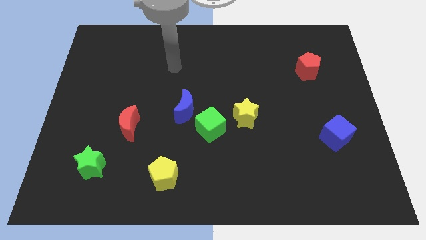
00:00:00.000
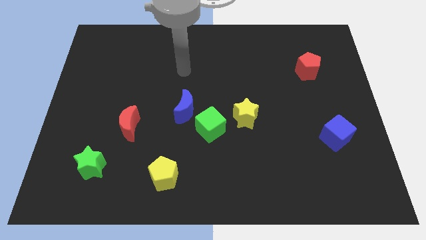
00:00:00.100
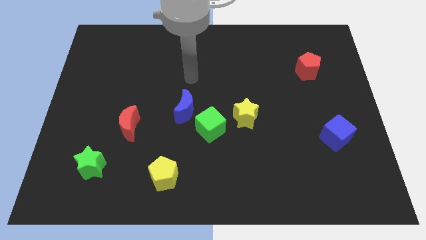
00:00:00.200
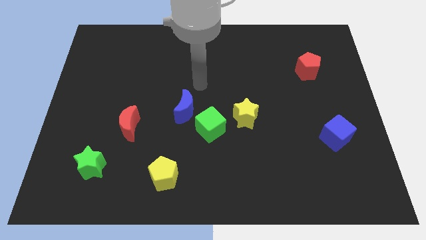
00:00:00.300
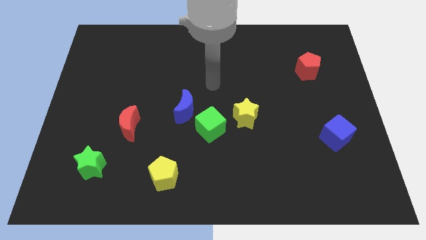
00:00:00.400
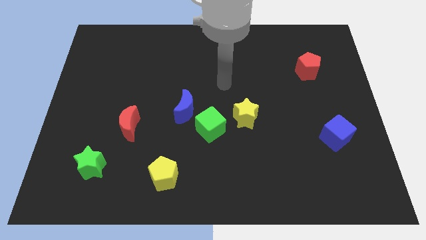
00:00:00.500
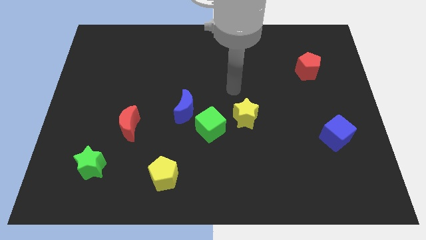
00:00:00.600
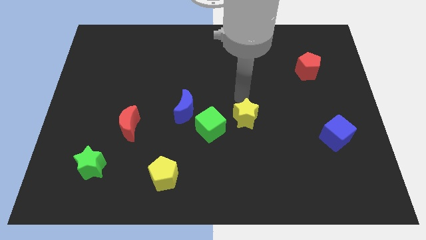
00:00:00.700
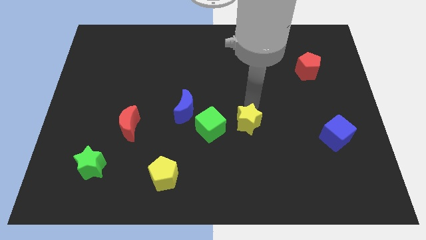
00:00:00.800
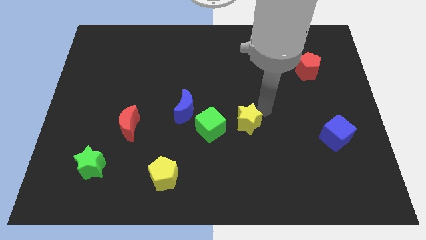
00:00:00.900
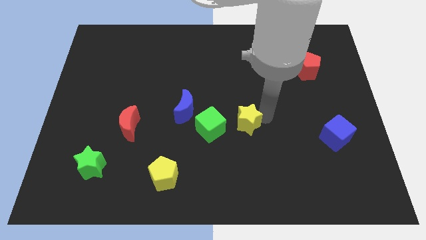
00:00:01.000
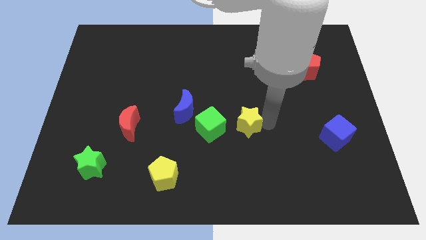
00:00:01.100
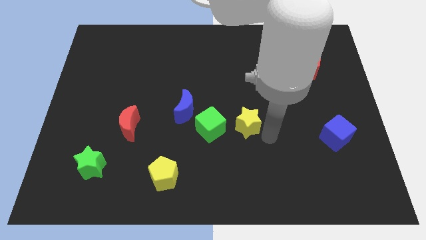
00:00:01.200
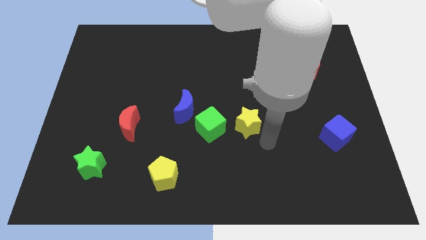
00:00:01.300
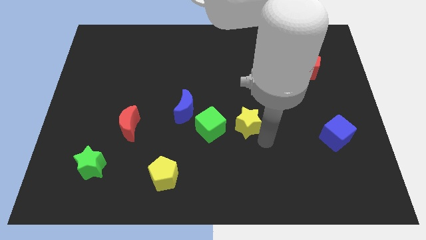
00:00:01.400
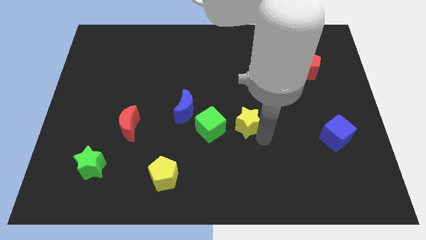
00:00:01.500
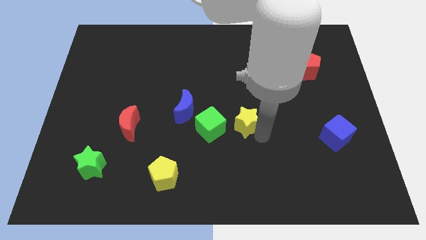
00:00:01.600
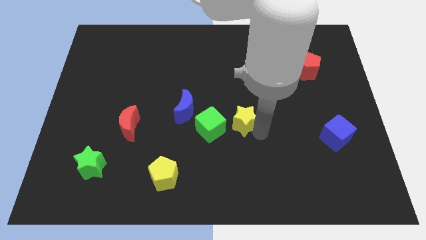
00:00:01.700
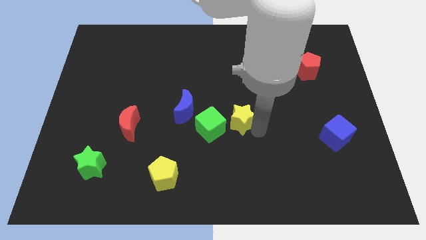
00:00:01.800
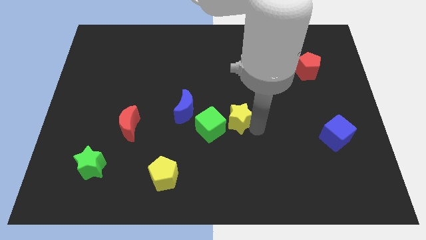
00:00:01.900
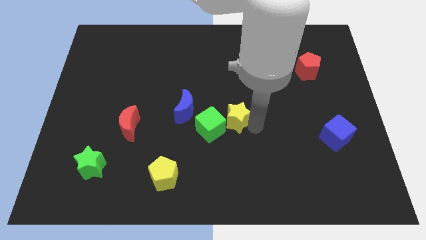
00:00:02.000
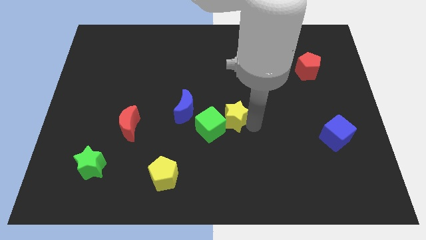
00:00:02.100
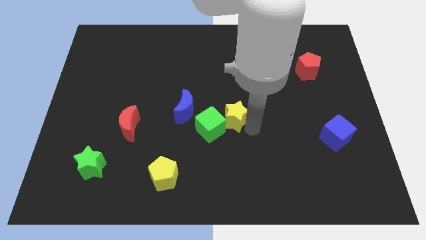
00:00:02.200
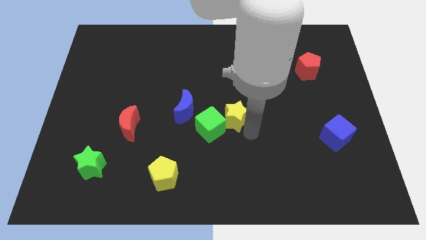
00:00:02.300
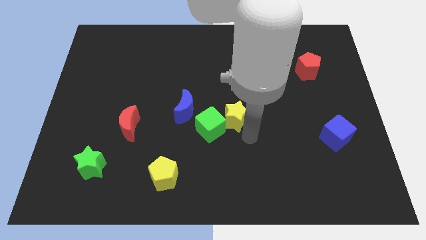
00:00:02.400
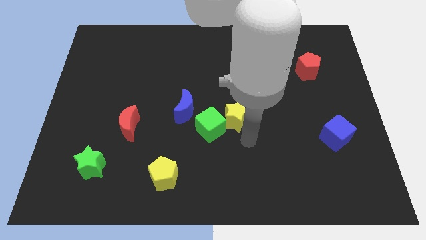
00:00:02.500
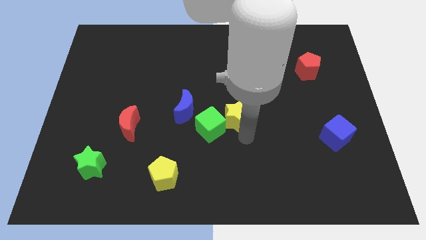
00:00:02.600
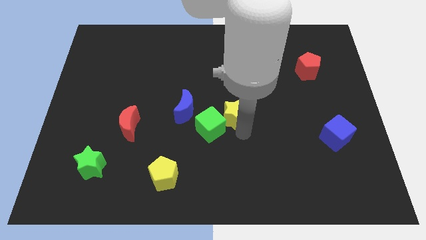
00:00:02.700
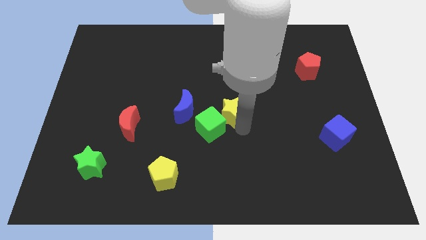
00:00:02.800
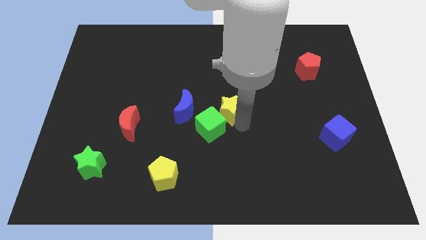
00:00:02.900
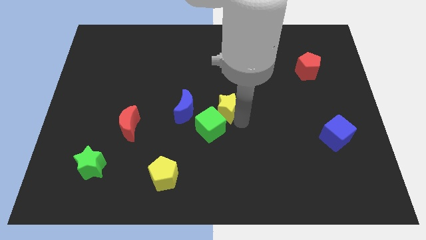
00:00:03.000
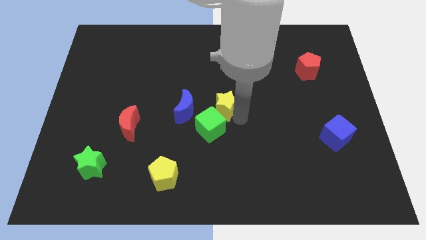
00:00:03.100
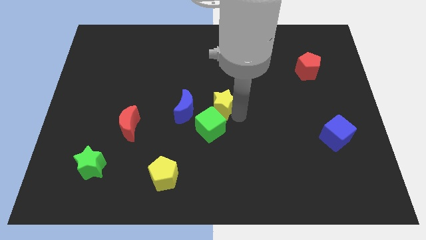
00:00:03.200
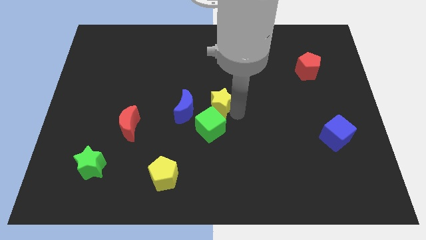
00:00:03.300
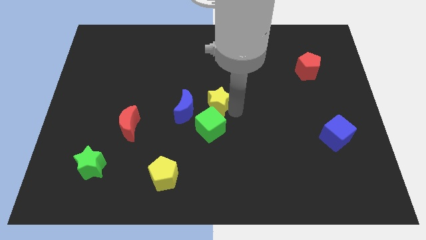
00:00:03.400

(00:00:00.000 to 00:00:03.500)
push the yellow star slightly upwards and to the left

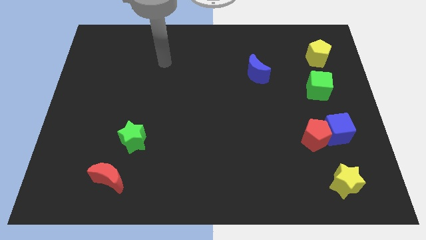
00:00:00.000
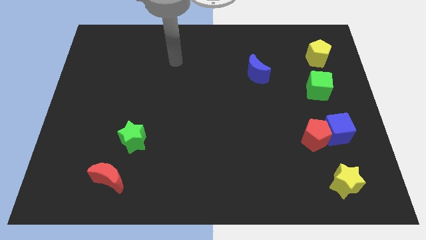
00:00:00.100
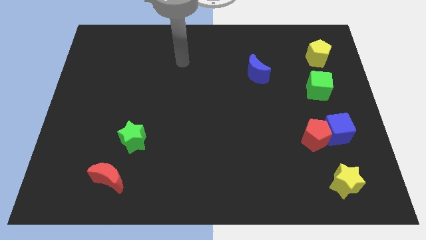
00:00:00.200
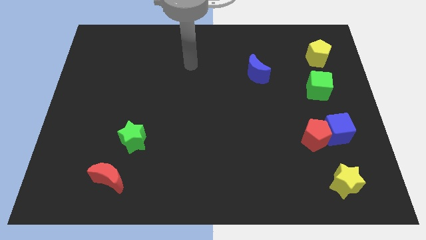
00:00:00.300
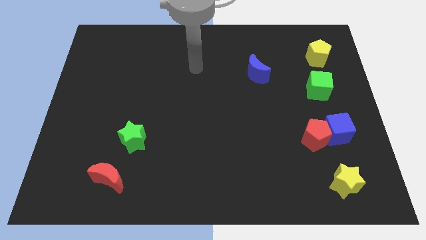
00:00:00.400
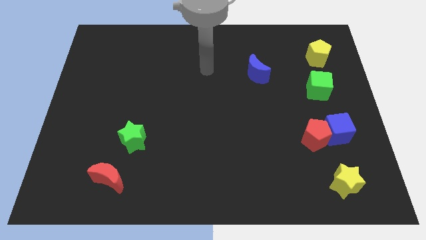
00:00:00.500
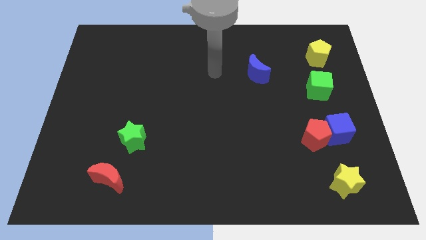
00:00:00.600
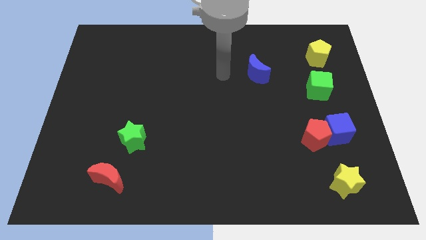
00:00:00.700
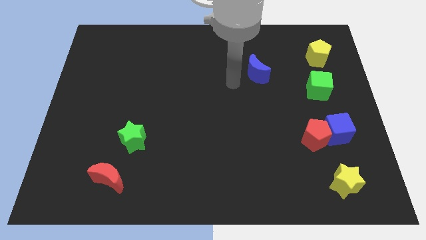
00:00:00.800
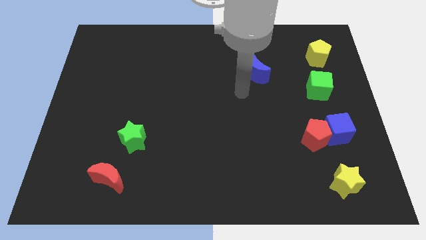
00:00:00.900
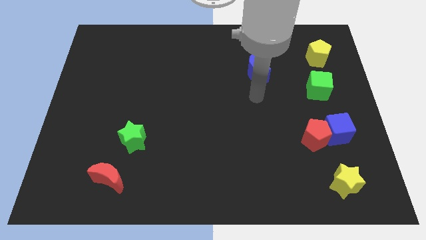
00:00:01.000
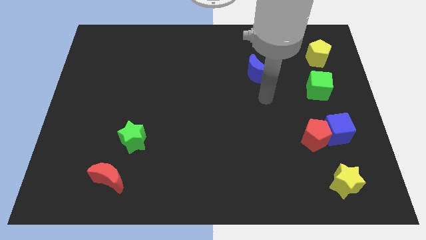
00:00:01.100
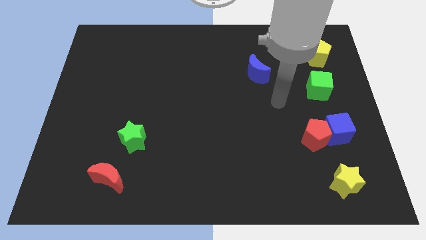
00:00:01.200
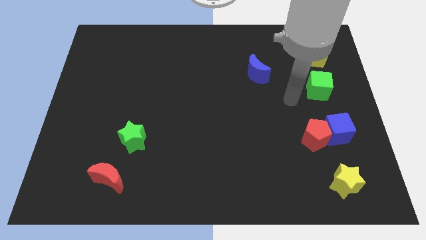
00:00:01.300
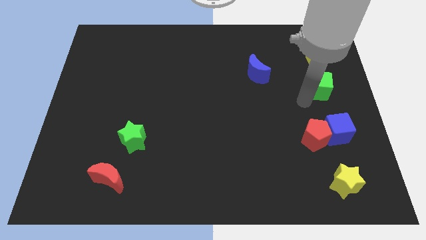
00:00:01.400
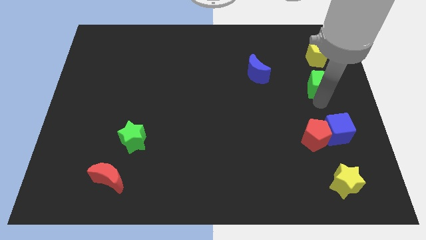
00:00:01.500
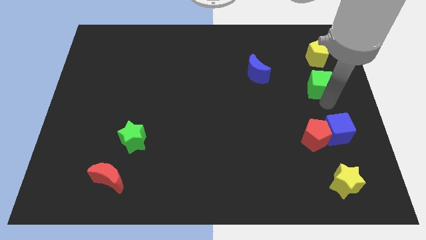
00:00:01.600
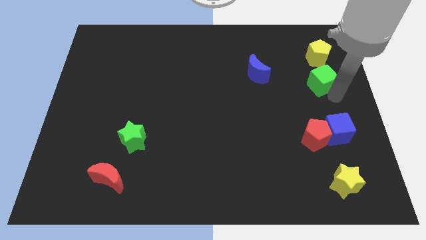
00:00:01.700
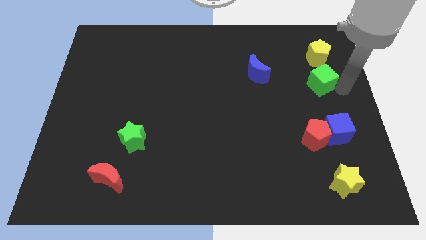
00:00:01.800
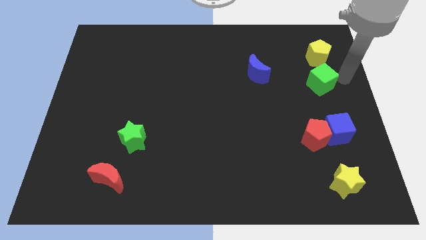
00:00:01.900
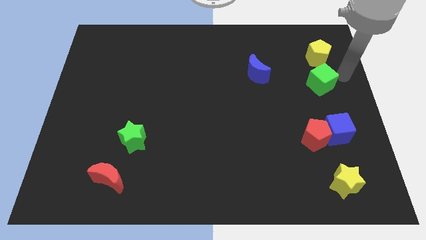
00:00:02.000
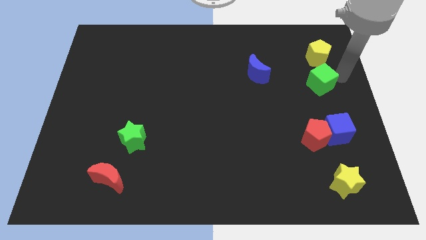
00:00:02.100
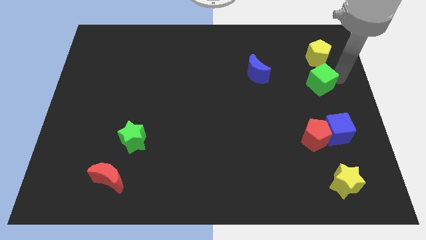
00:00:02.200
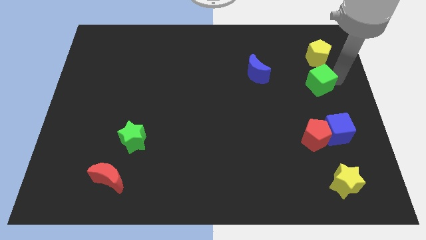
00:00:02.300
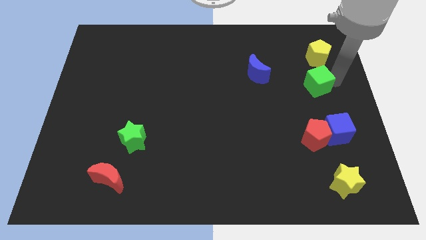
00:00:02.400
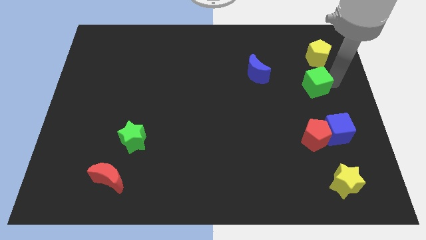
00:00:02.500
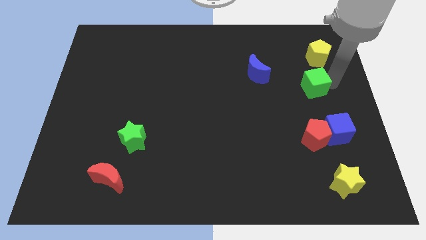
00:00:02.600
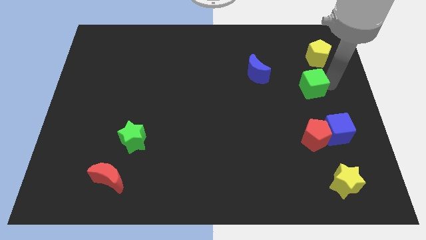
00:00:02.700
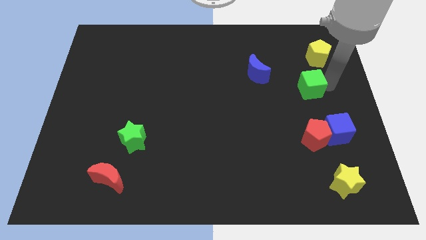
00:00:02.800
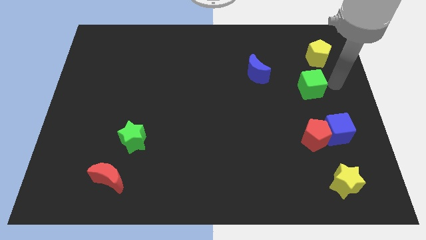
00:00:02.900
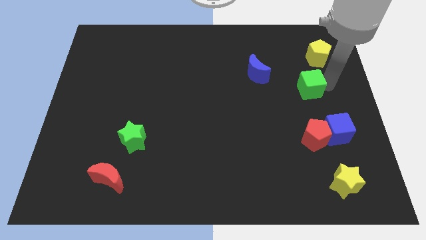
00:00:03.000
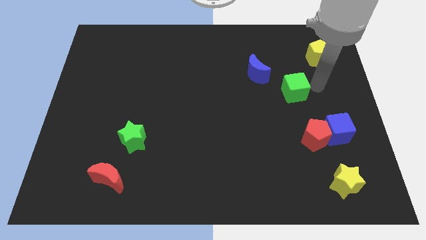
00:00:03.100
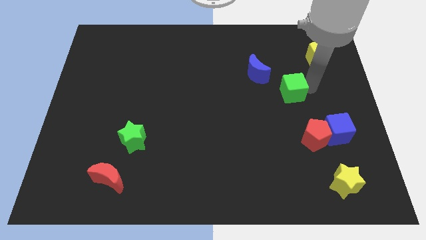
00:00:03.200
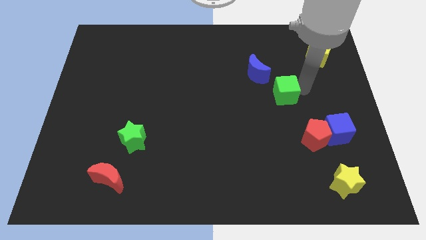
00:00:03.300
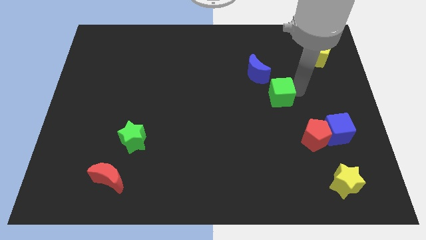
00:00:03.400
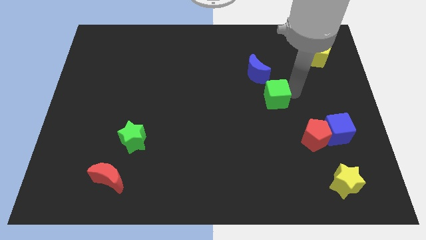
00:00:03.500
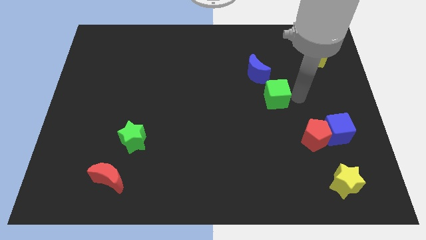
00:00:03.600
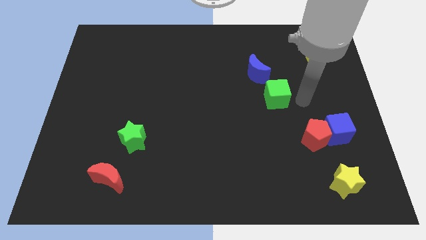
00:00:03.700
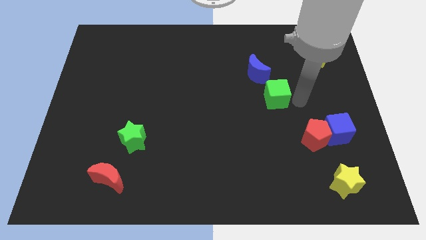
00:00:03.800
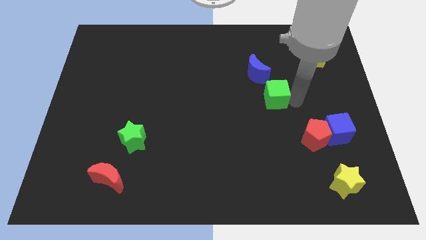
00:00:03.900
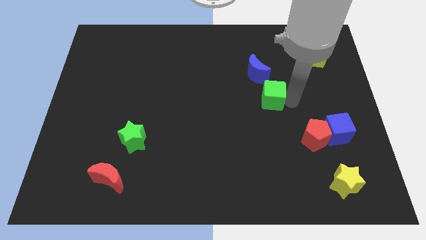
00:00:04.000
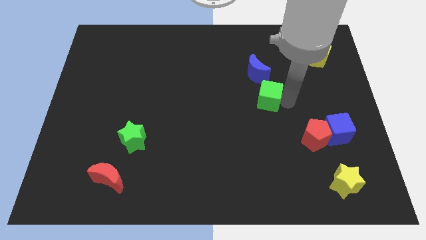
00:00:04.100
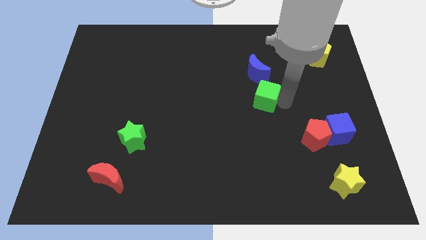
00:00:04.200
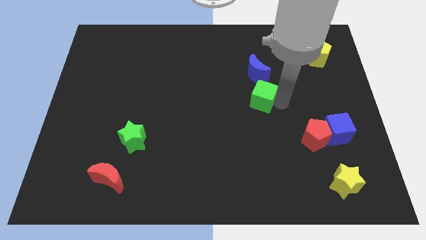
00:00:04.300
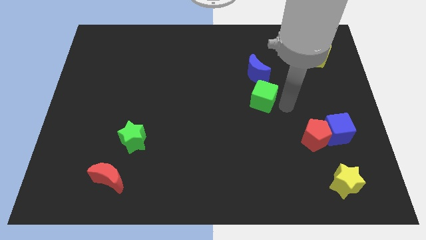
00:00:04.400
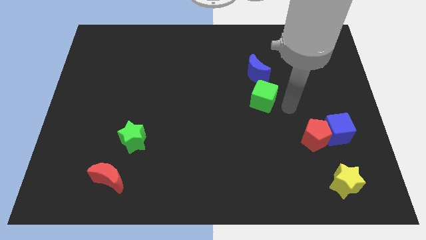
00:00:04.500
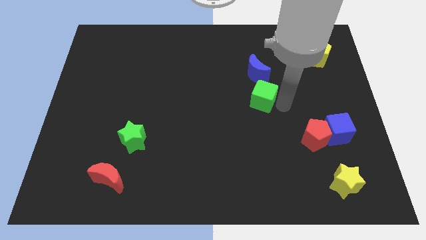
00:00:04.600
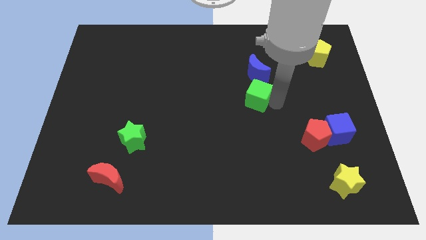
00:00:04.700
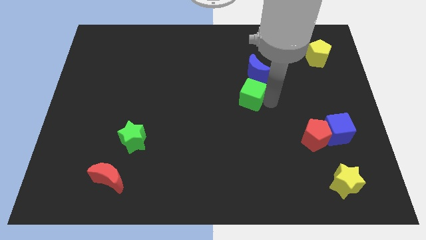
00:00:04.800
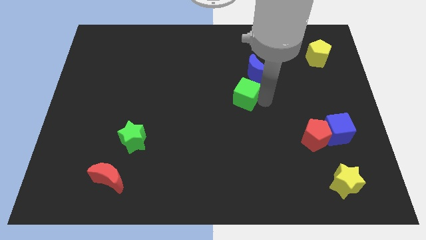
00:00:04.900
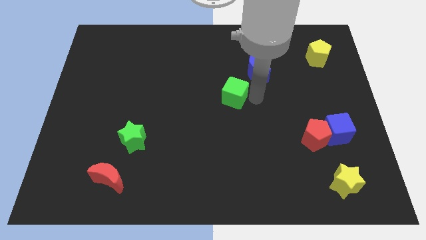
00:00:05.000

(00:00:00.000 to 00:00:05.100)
push the green cube left
